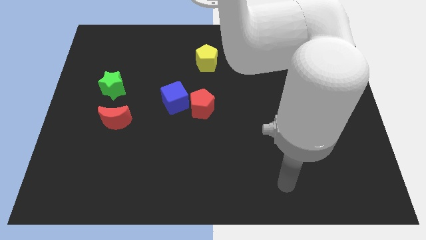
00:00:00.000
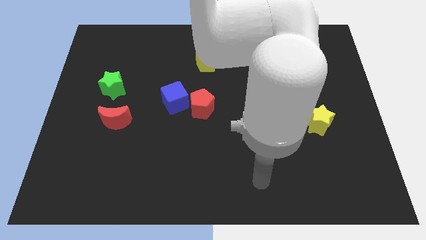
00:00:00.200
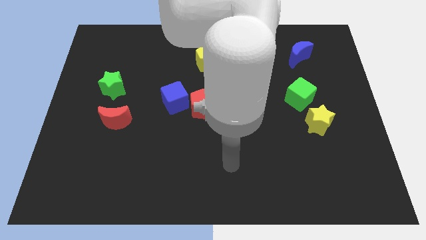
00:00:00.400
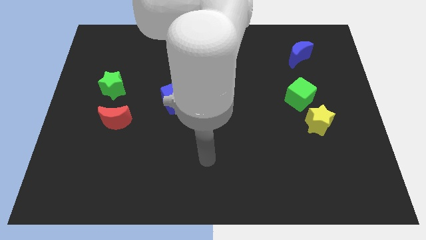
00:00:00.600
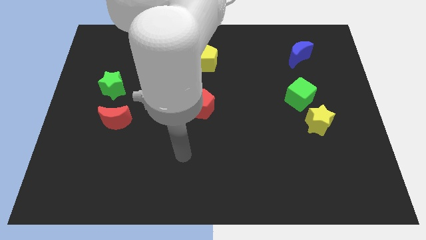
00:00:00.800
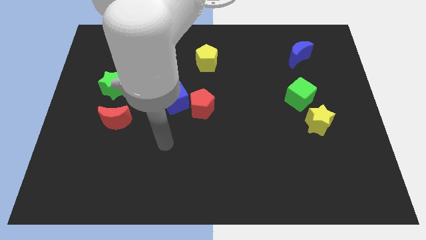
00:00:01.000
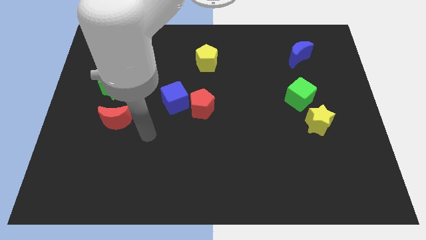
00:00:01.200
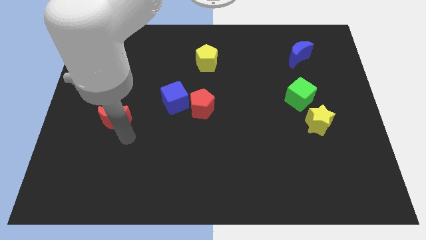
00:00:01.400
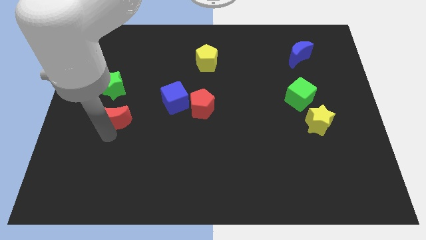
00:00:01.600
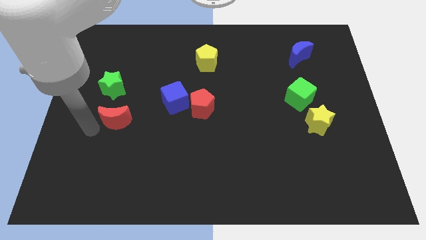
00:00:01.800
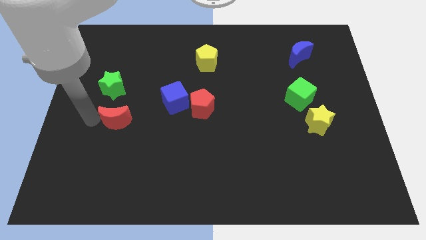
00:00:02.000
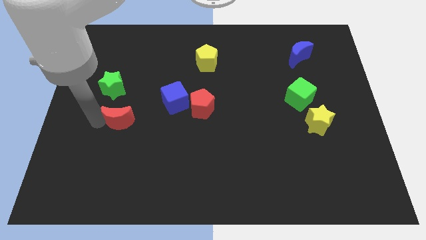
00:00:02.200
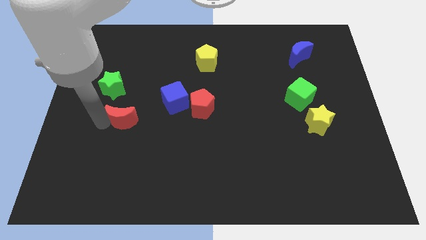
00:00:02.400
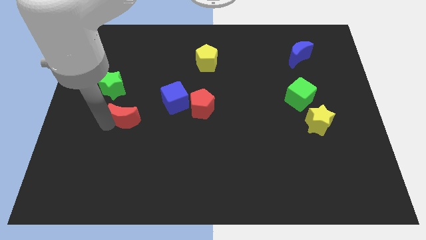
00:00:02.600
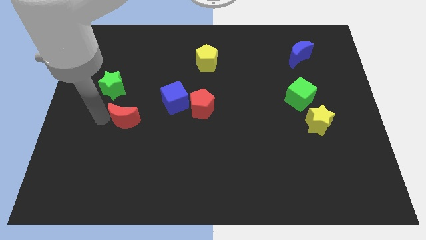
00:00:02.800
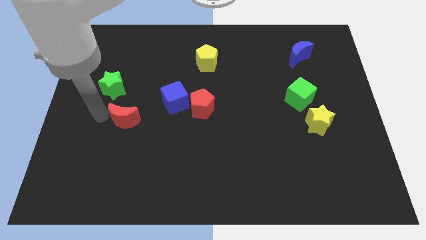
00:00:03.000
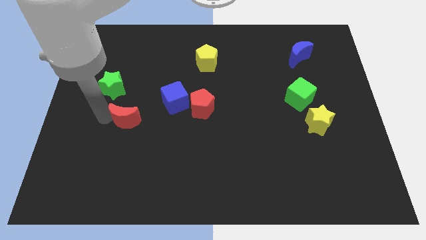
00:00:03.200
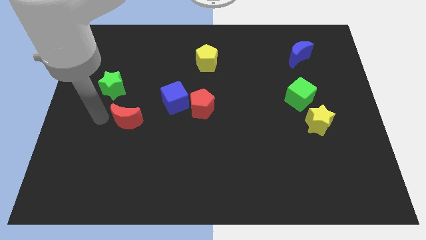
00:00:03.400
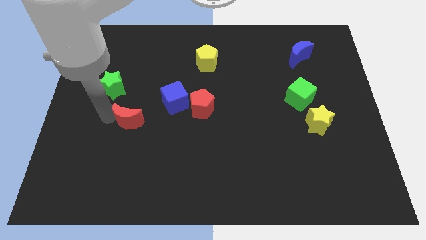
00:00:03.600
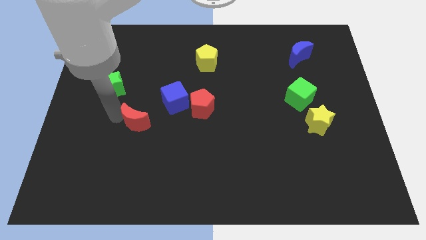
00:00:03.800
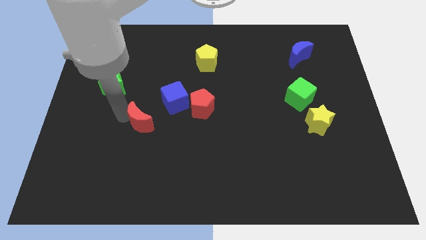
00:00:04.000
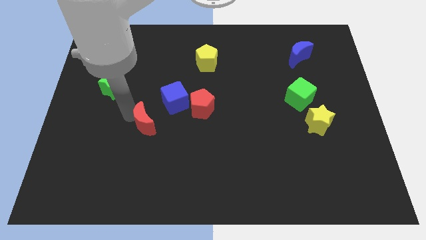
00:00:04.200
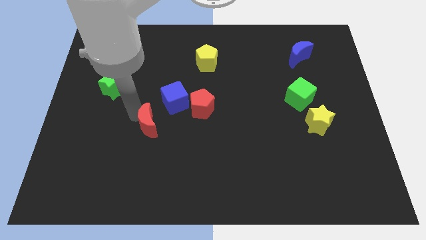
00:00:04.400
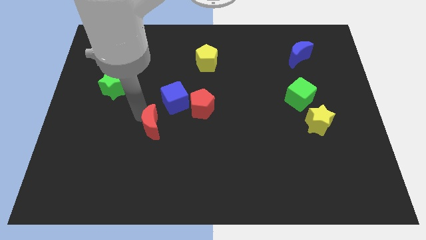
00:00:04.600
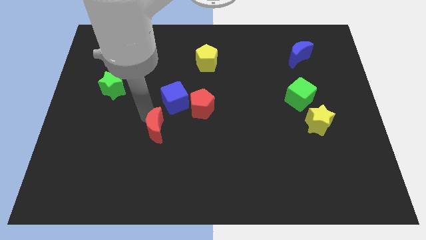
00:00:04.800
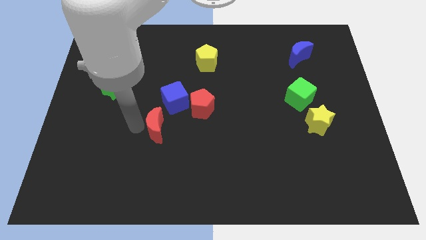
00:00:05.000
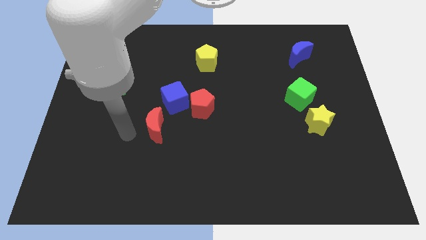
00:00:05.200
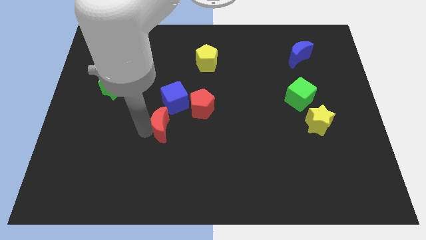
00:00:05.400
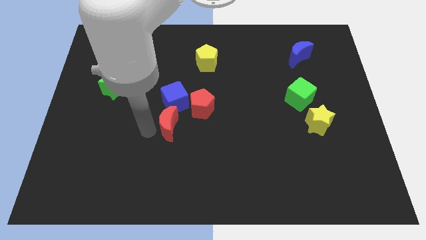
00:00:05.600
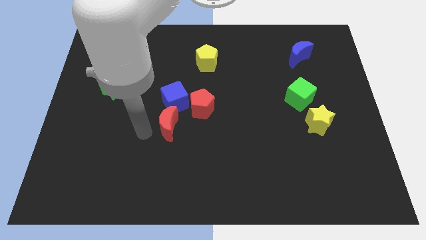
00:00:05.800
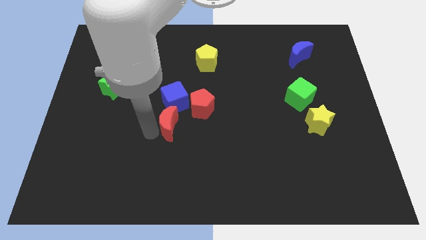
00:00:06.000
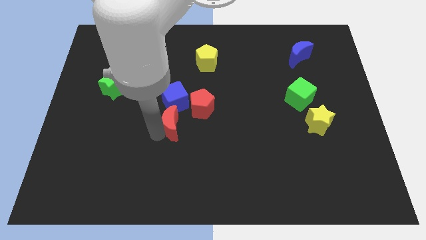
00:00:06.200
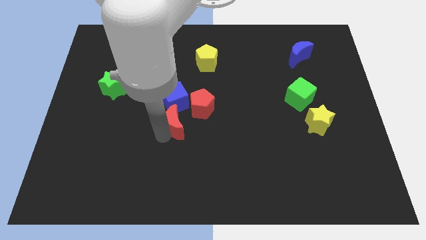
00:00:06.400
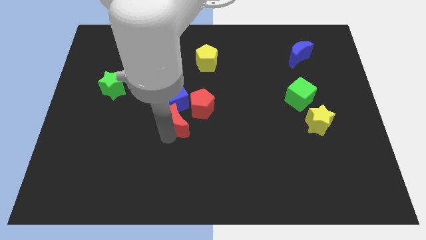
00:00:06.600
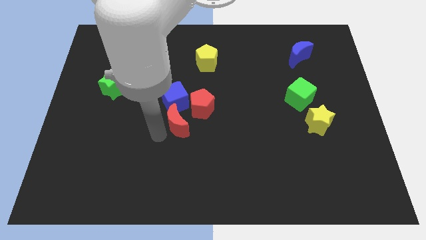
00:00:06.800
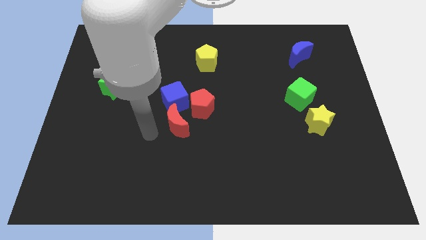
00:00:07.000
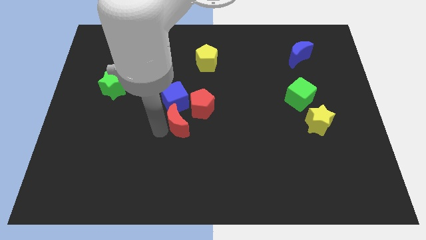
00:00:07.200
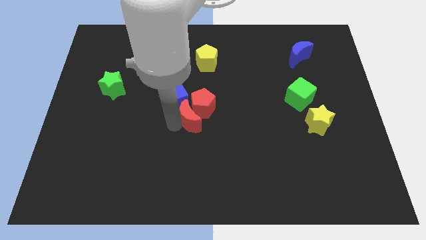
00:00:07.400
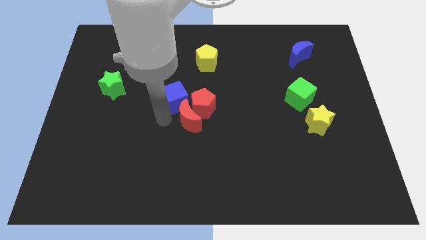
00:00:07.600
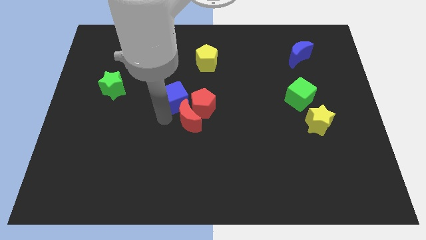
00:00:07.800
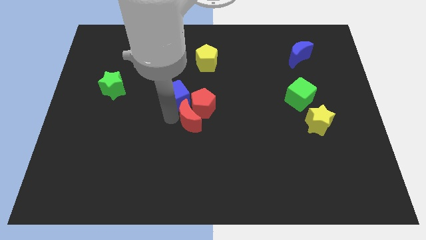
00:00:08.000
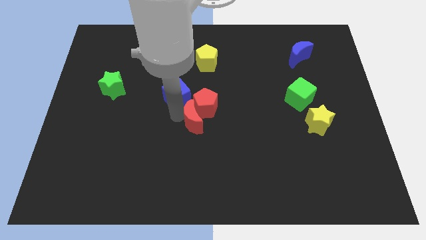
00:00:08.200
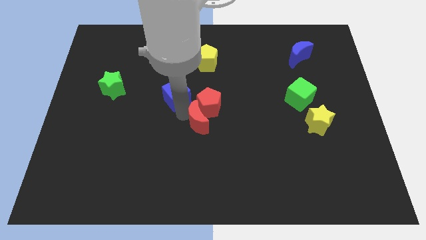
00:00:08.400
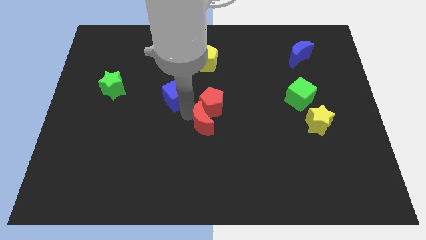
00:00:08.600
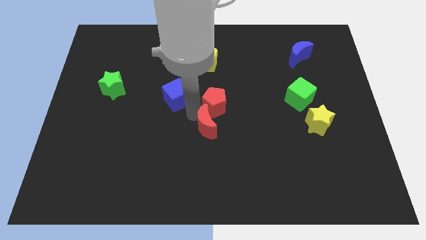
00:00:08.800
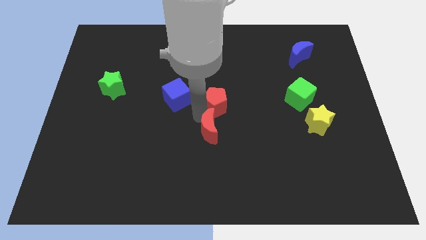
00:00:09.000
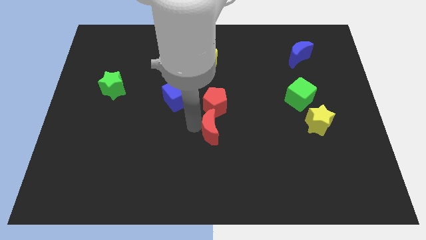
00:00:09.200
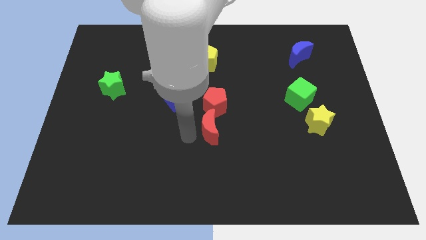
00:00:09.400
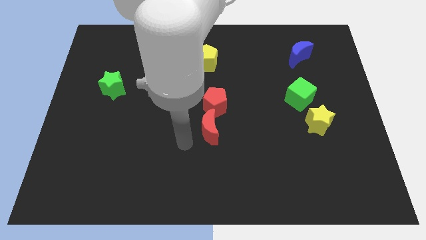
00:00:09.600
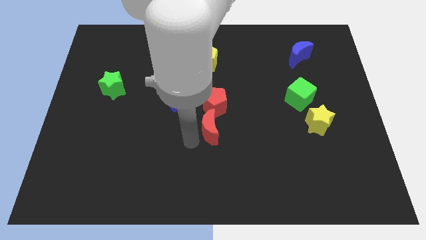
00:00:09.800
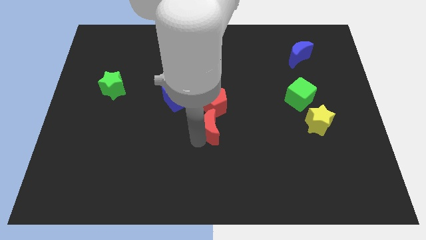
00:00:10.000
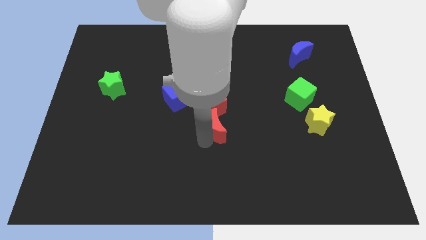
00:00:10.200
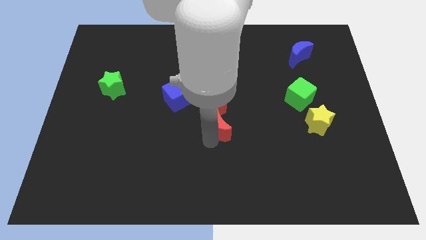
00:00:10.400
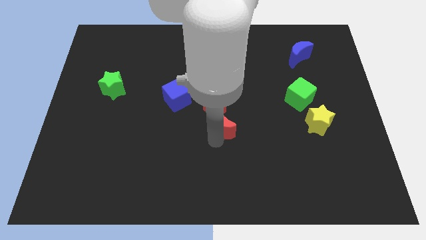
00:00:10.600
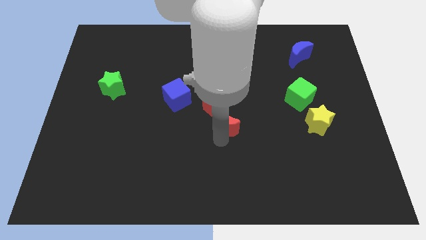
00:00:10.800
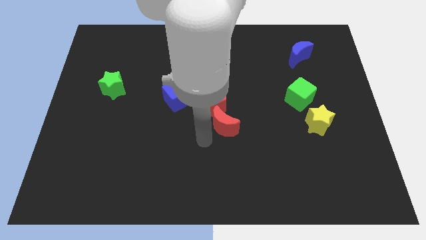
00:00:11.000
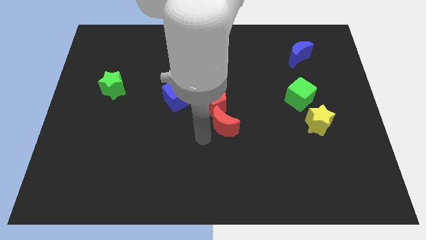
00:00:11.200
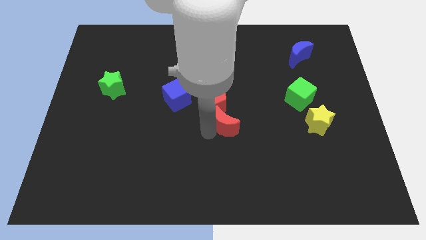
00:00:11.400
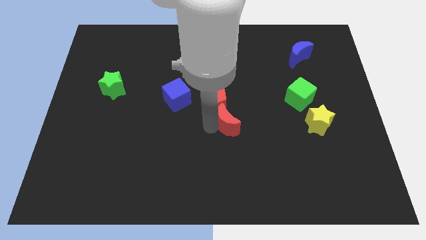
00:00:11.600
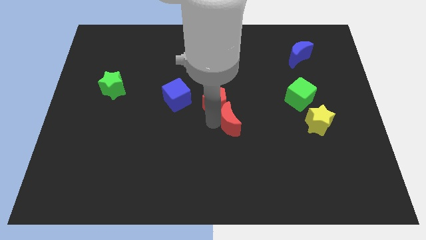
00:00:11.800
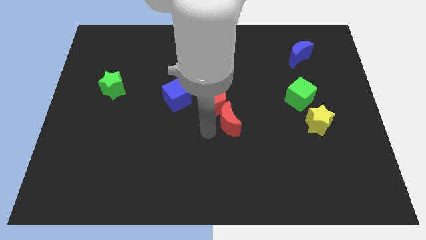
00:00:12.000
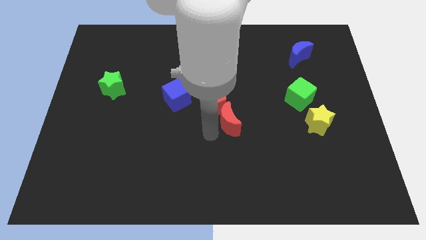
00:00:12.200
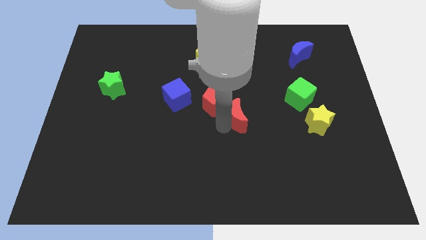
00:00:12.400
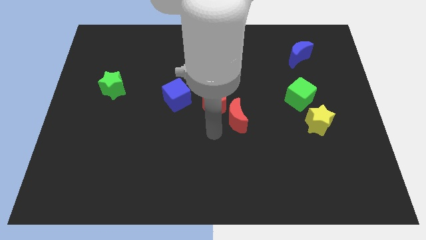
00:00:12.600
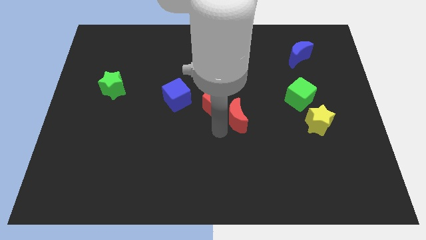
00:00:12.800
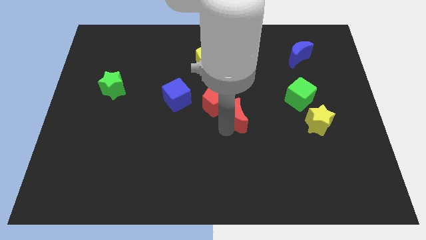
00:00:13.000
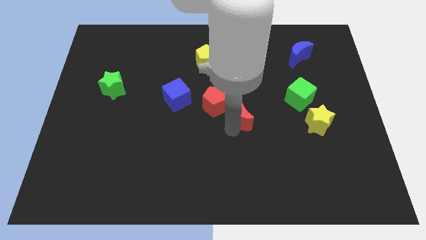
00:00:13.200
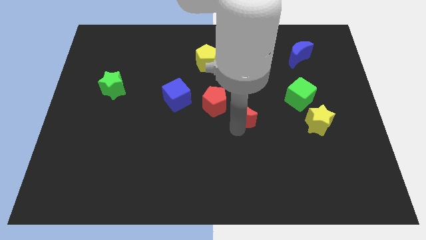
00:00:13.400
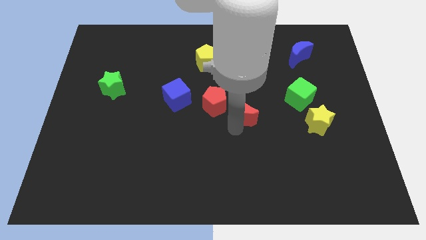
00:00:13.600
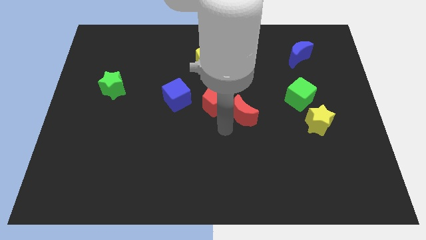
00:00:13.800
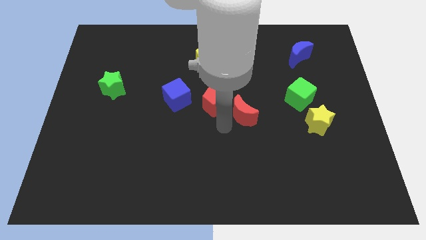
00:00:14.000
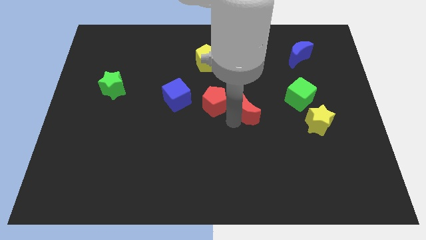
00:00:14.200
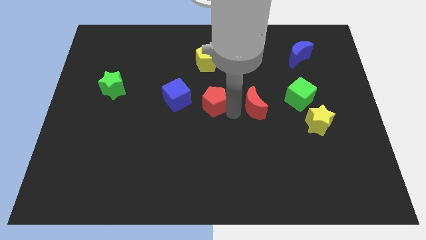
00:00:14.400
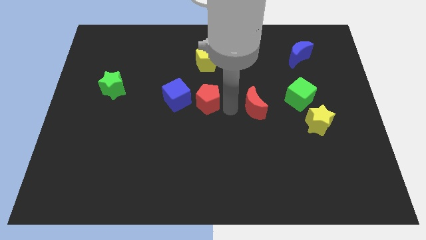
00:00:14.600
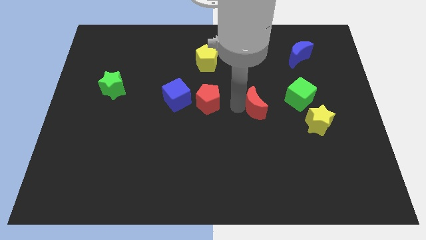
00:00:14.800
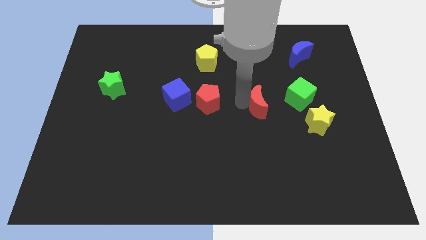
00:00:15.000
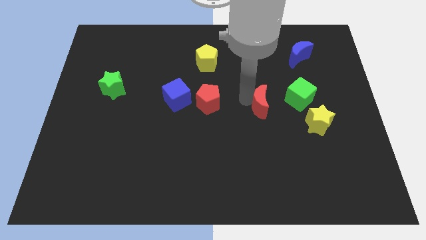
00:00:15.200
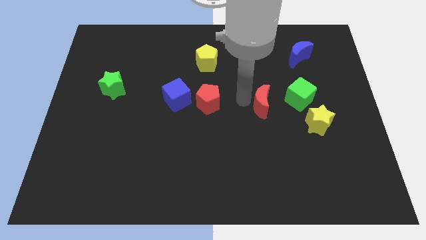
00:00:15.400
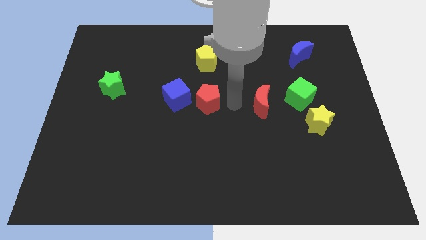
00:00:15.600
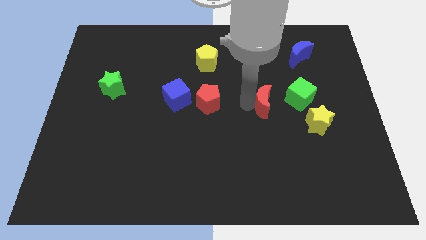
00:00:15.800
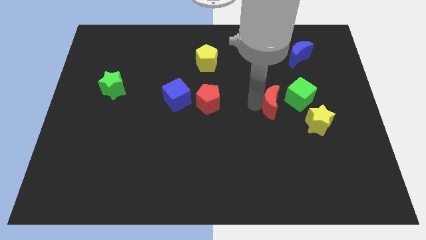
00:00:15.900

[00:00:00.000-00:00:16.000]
push the red moon to the top left of the yellow star
